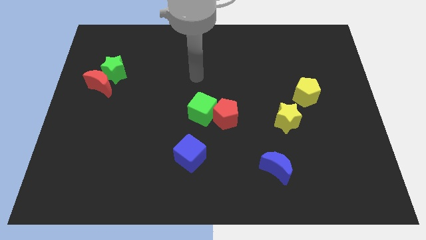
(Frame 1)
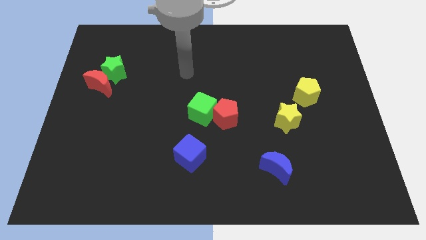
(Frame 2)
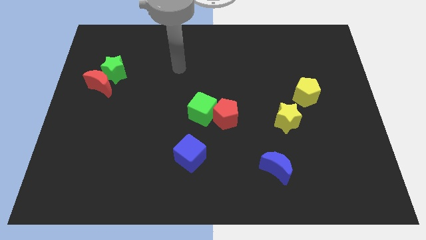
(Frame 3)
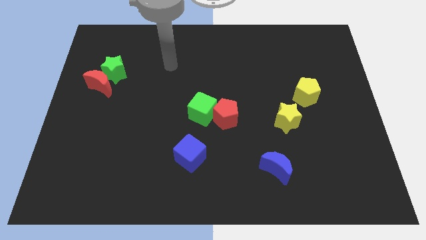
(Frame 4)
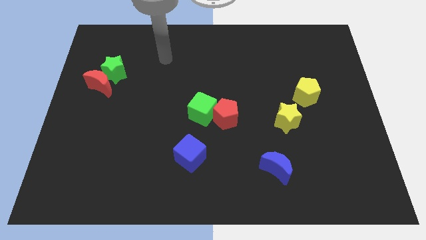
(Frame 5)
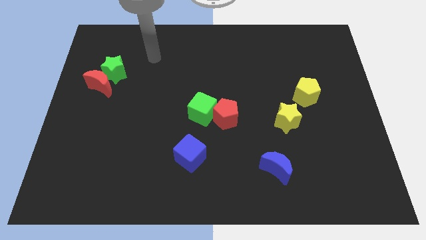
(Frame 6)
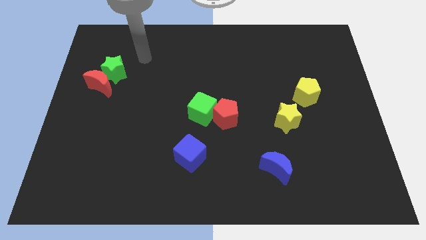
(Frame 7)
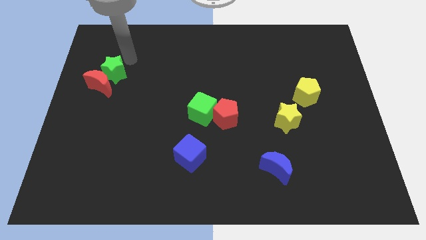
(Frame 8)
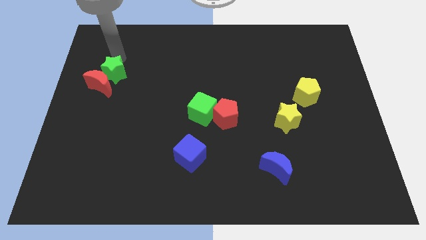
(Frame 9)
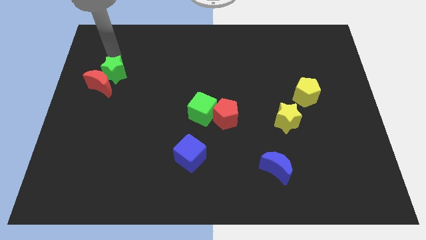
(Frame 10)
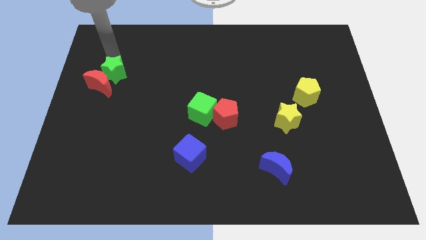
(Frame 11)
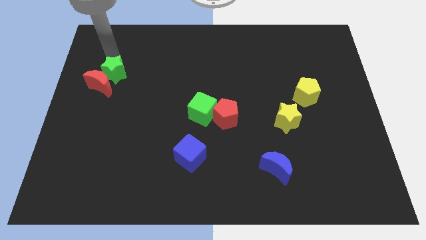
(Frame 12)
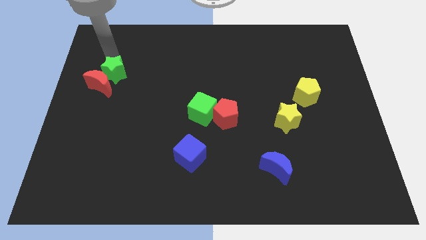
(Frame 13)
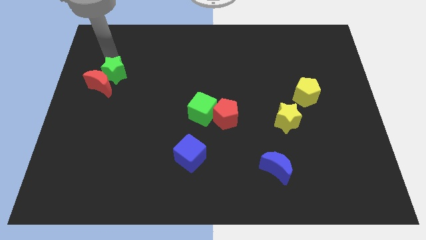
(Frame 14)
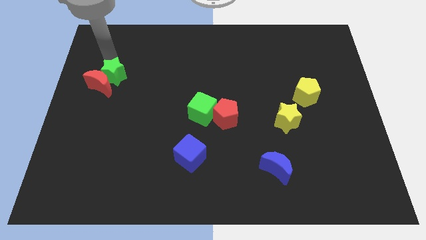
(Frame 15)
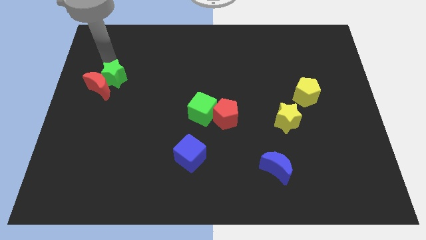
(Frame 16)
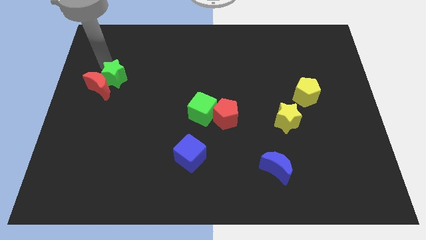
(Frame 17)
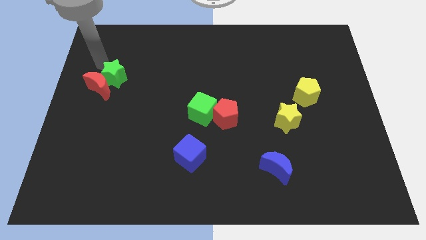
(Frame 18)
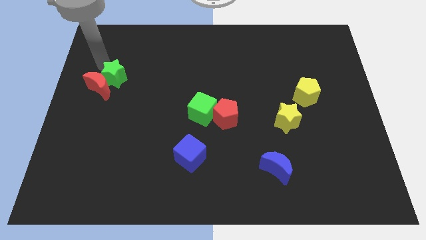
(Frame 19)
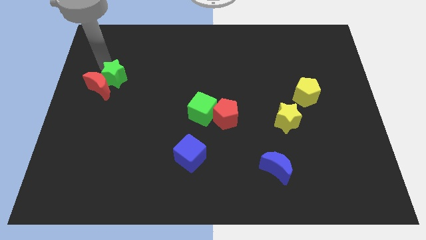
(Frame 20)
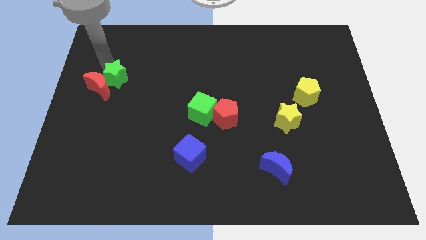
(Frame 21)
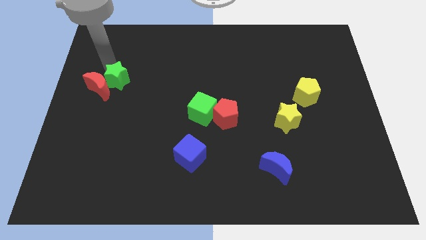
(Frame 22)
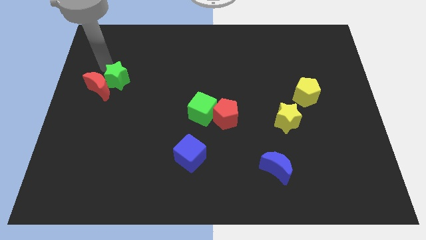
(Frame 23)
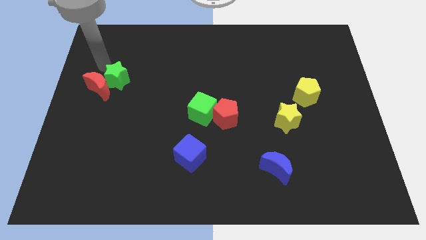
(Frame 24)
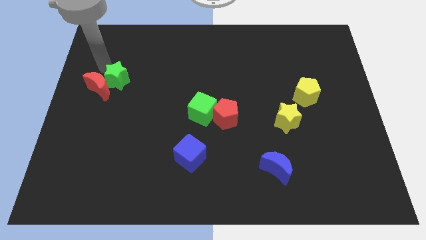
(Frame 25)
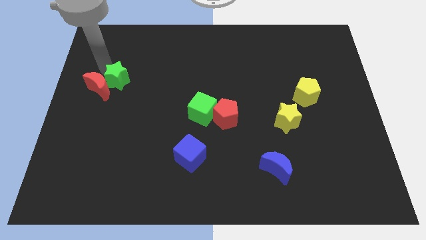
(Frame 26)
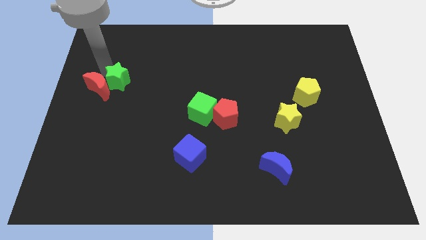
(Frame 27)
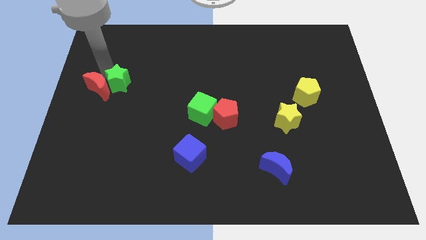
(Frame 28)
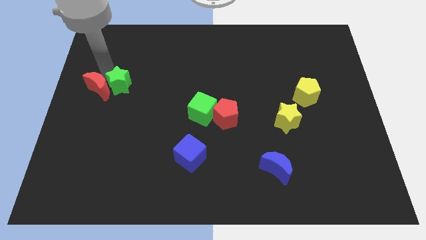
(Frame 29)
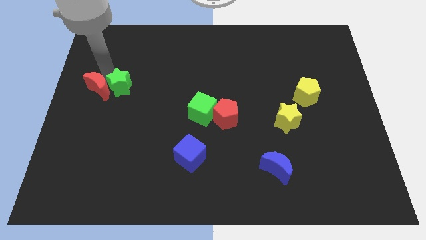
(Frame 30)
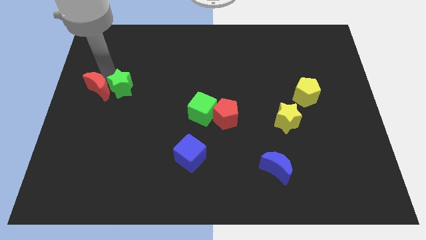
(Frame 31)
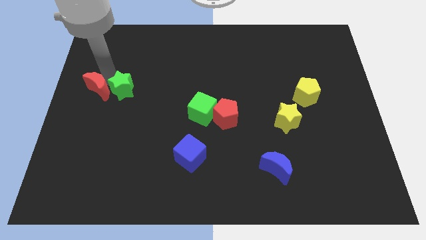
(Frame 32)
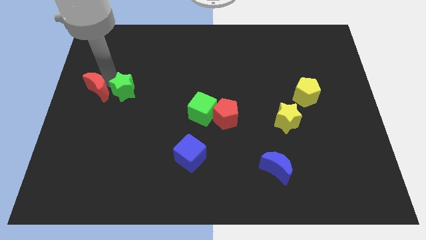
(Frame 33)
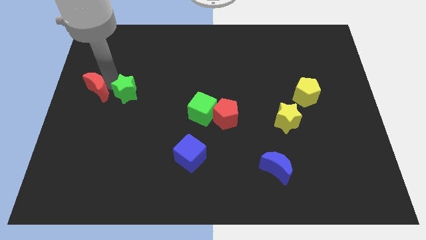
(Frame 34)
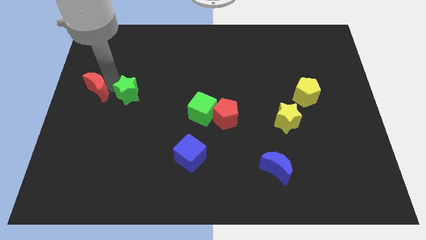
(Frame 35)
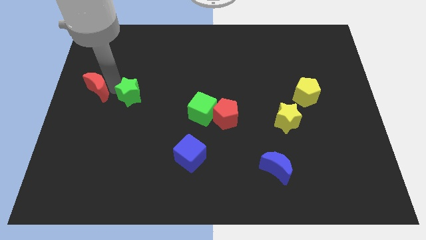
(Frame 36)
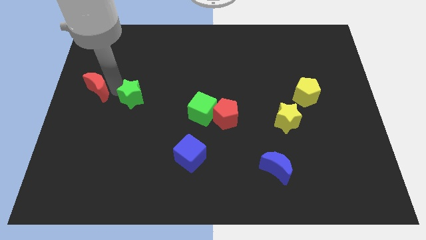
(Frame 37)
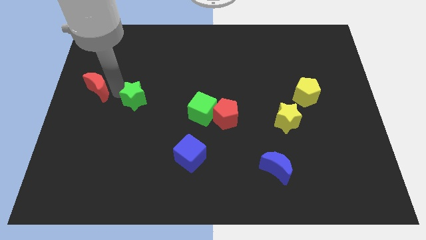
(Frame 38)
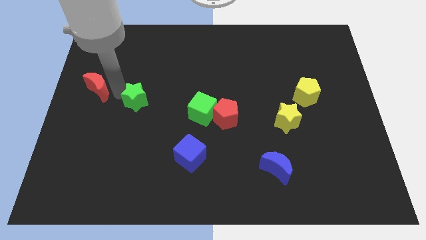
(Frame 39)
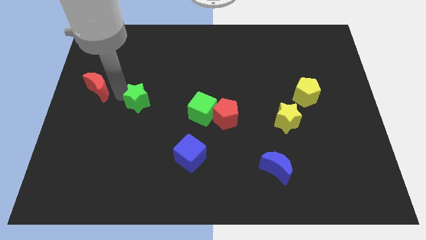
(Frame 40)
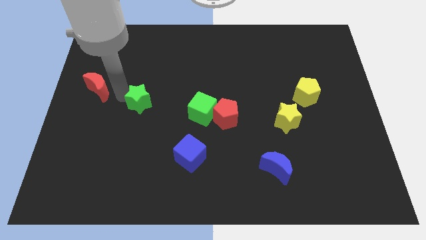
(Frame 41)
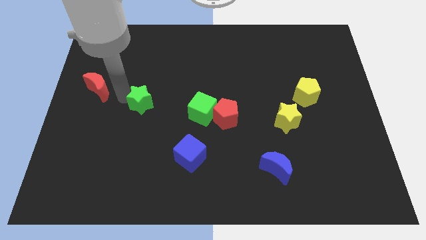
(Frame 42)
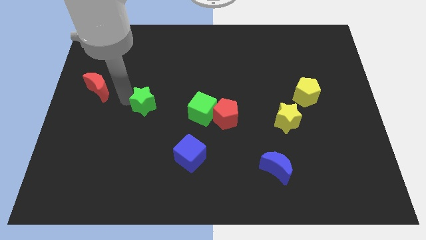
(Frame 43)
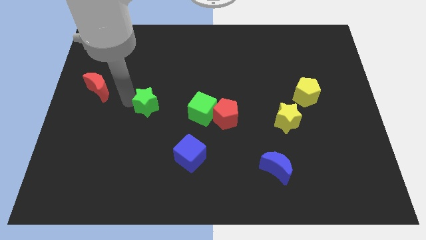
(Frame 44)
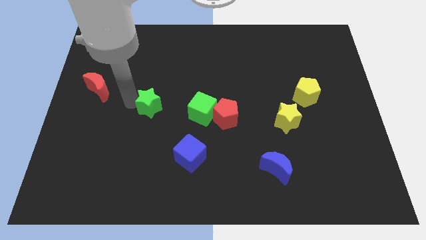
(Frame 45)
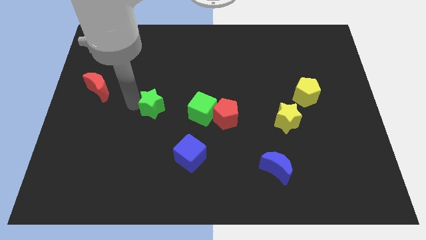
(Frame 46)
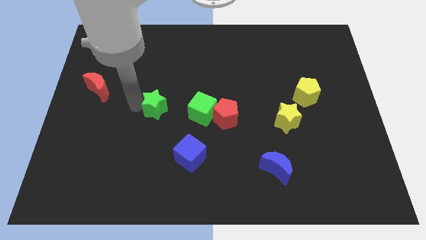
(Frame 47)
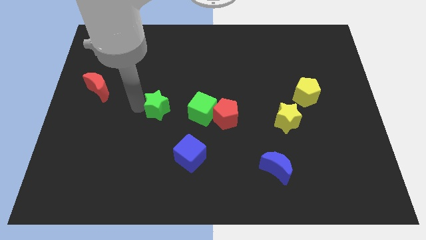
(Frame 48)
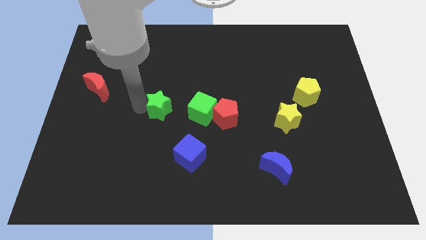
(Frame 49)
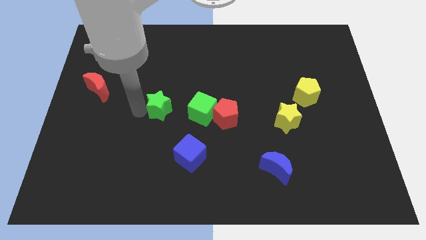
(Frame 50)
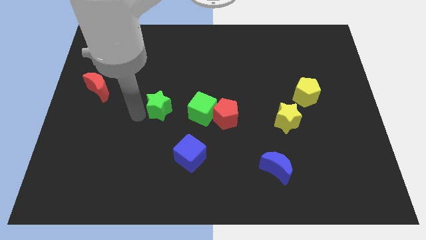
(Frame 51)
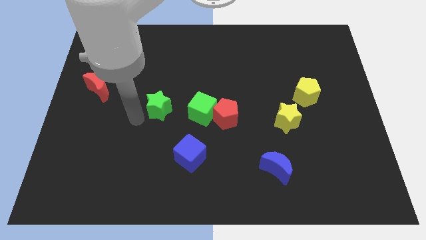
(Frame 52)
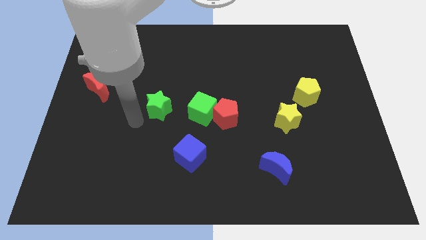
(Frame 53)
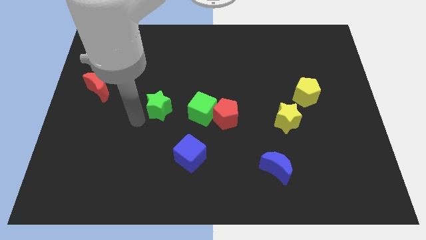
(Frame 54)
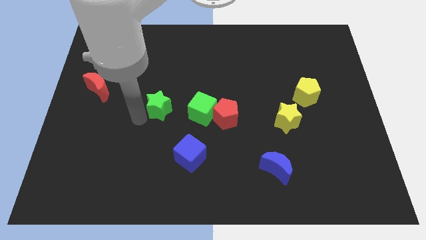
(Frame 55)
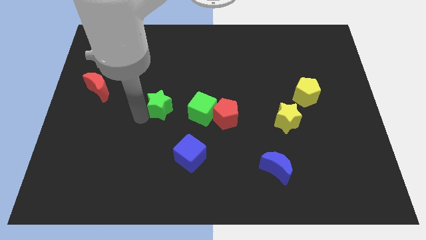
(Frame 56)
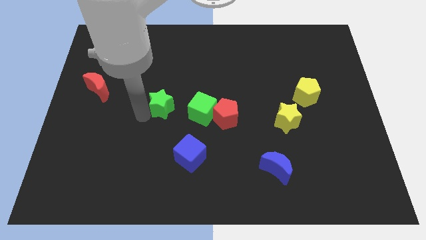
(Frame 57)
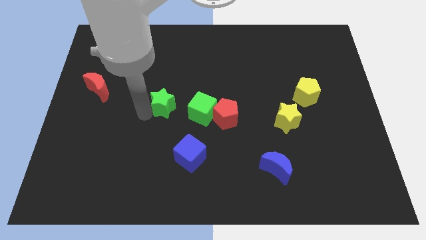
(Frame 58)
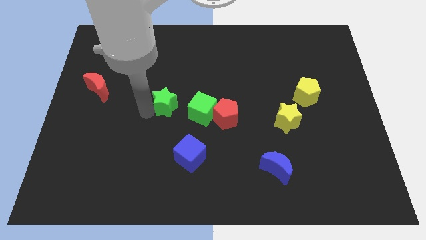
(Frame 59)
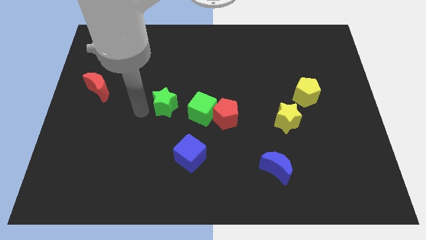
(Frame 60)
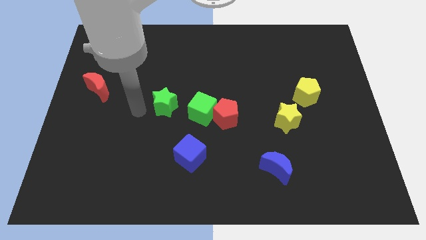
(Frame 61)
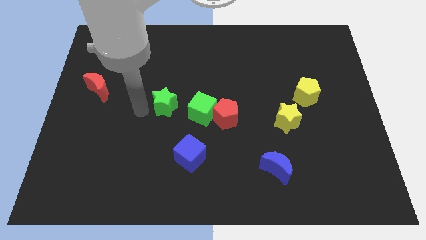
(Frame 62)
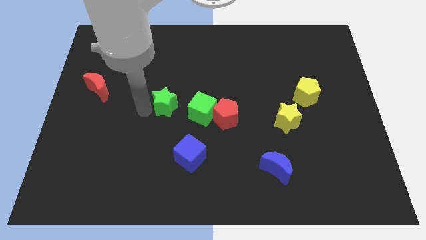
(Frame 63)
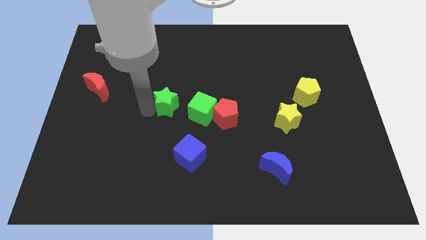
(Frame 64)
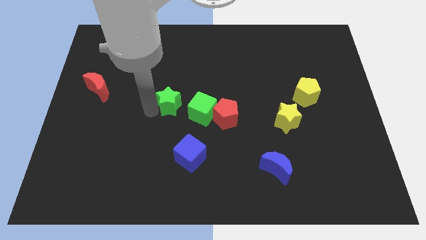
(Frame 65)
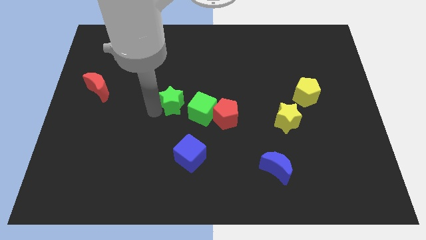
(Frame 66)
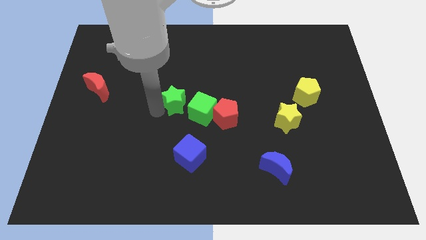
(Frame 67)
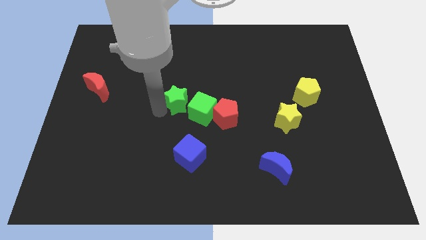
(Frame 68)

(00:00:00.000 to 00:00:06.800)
move the green star to the top of the blue cube
